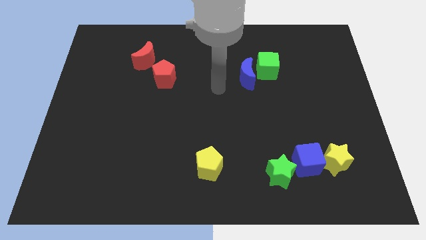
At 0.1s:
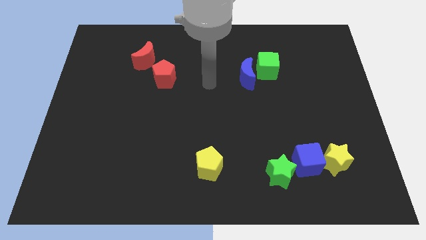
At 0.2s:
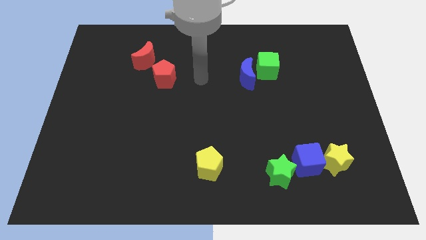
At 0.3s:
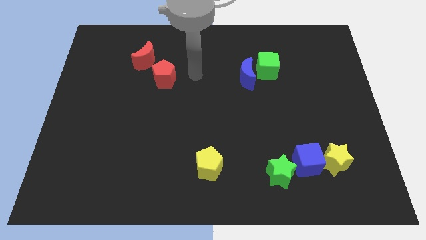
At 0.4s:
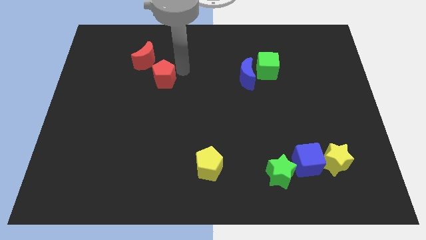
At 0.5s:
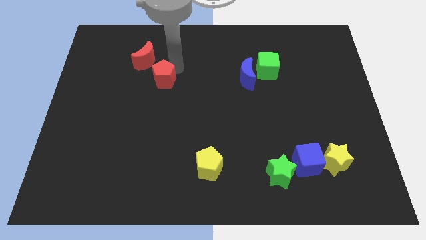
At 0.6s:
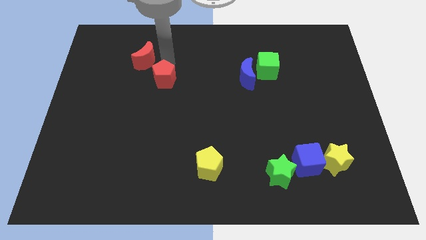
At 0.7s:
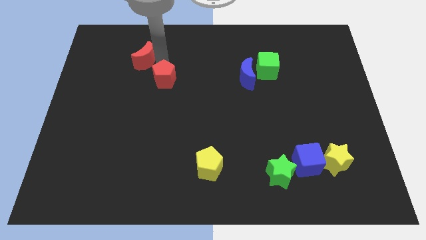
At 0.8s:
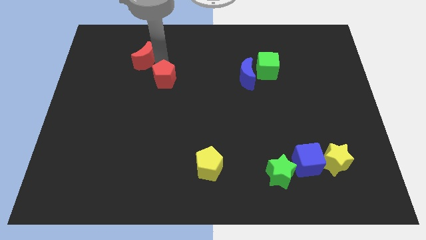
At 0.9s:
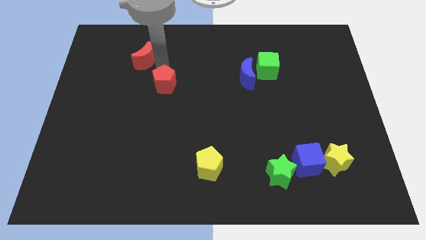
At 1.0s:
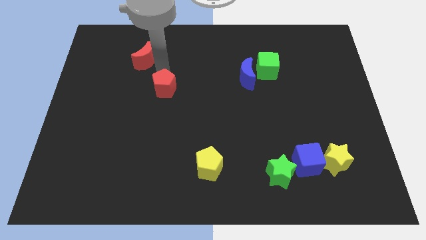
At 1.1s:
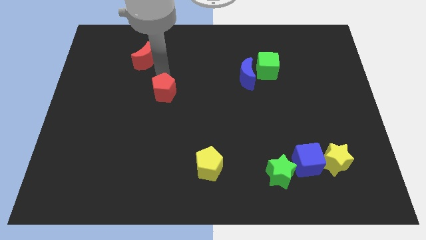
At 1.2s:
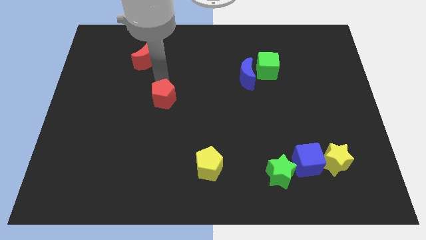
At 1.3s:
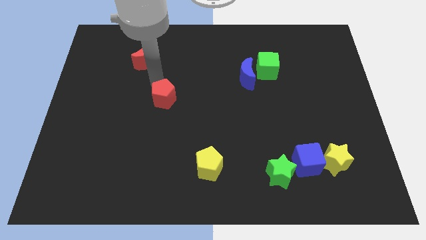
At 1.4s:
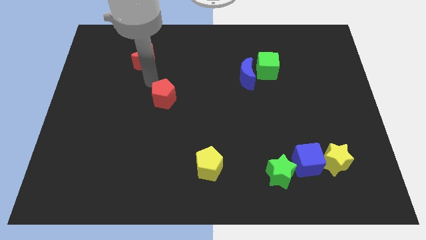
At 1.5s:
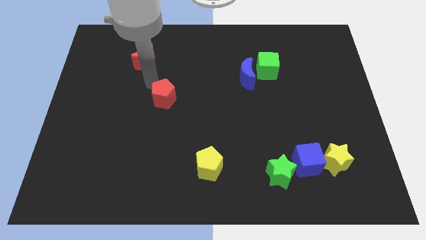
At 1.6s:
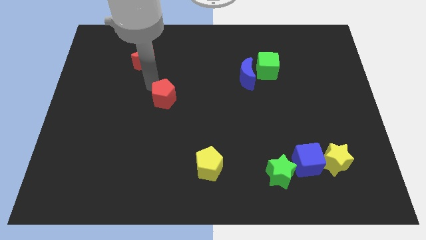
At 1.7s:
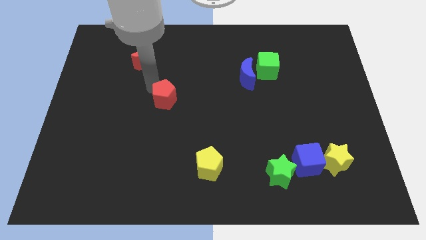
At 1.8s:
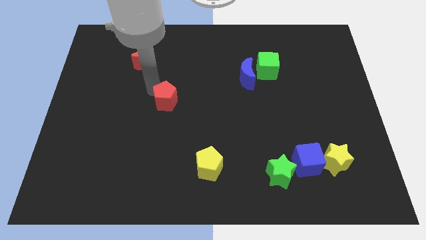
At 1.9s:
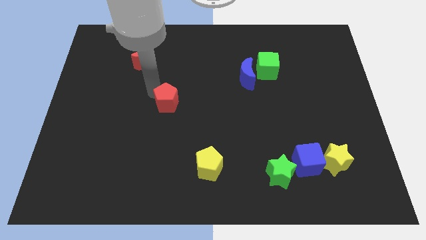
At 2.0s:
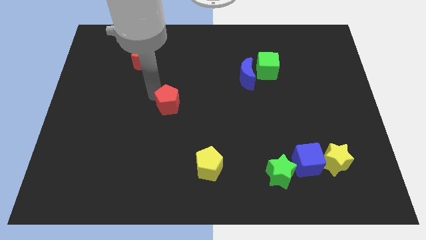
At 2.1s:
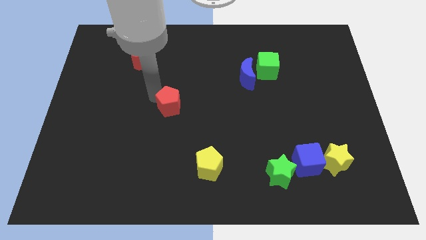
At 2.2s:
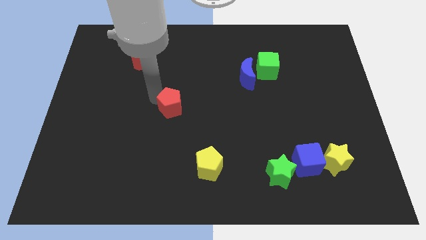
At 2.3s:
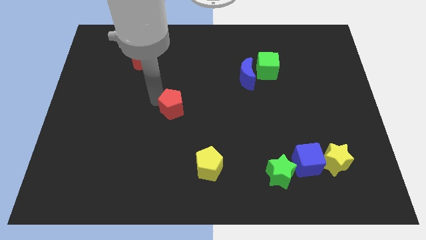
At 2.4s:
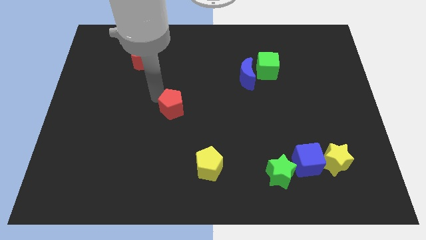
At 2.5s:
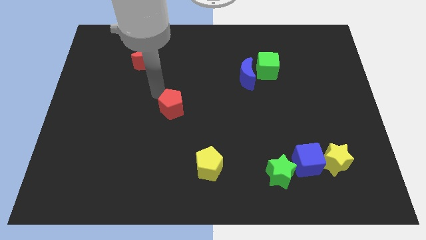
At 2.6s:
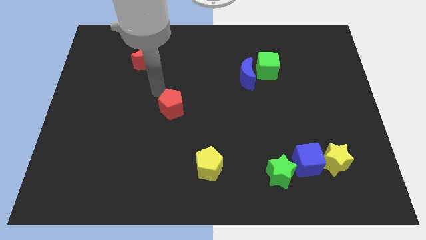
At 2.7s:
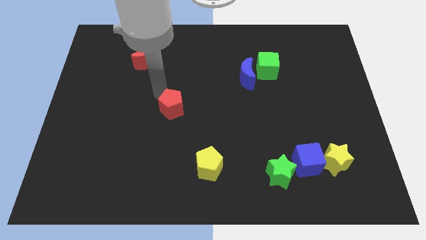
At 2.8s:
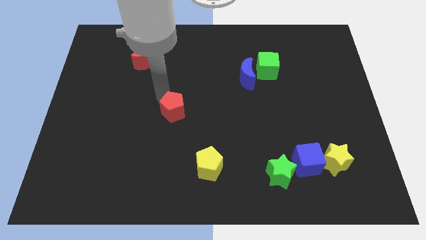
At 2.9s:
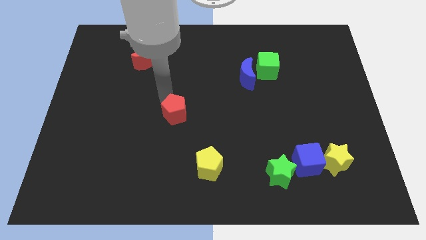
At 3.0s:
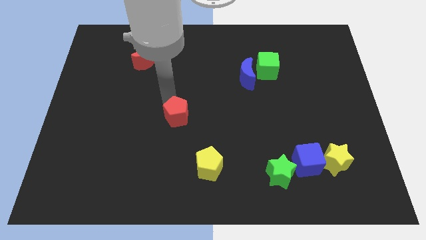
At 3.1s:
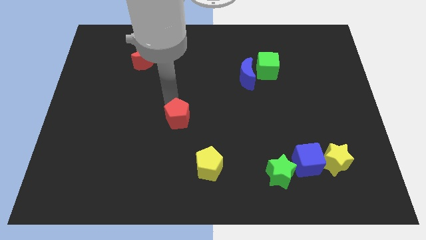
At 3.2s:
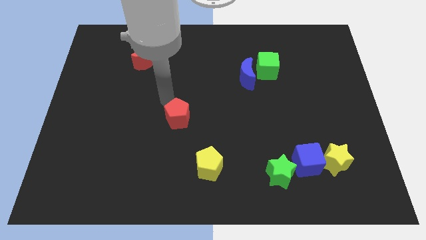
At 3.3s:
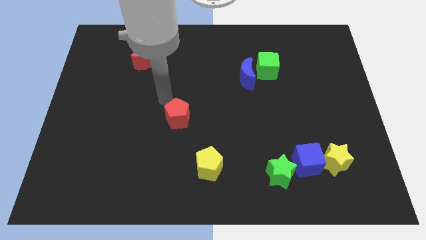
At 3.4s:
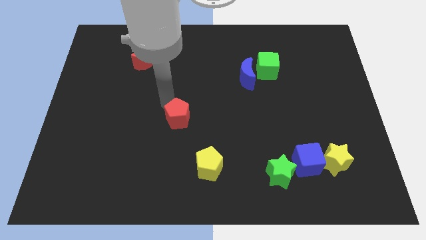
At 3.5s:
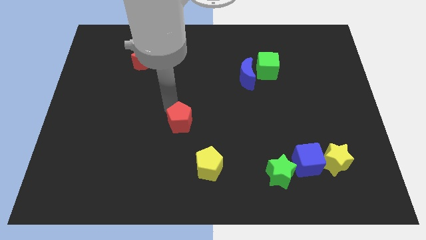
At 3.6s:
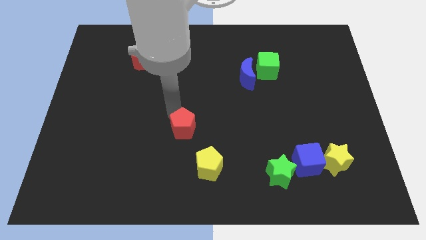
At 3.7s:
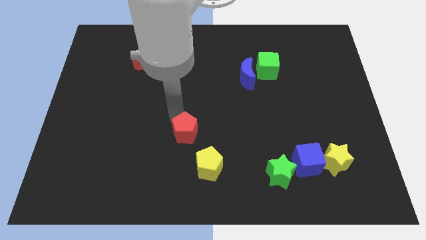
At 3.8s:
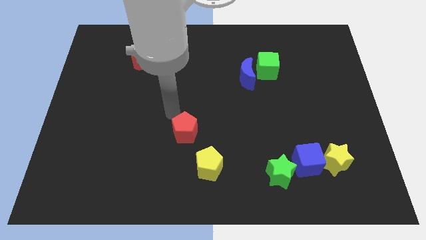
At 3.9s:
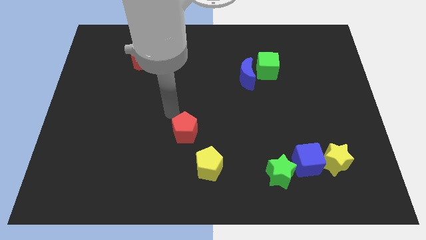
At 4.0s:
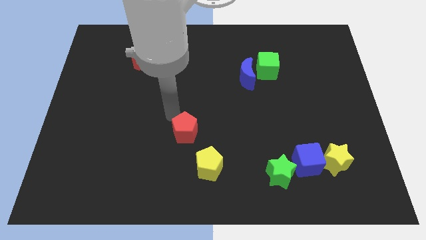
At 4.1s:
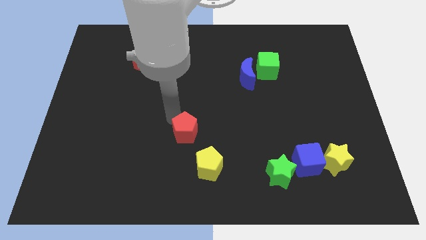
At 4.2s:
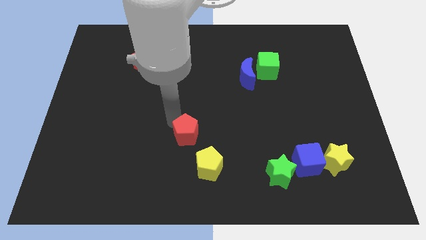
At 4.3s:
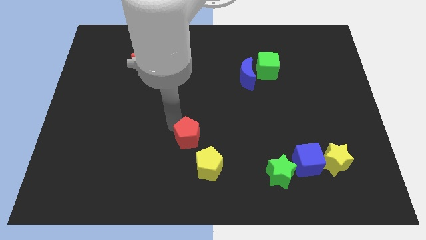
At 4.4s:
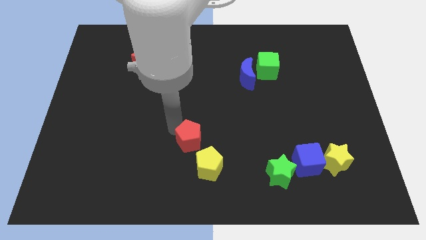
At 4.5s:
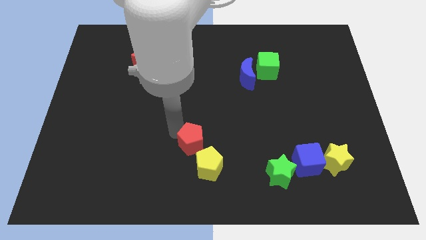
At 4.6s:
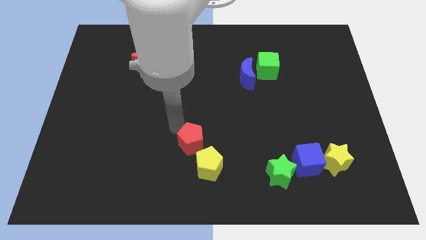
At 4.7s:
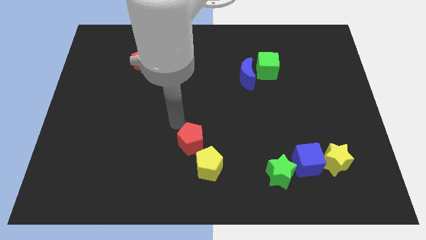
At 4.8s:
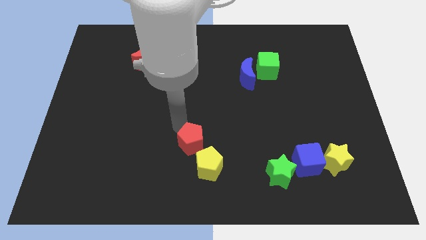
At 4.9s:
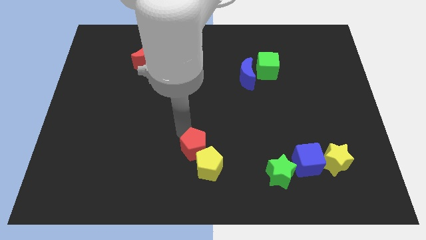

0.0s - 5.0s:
move the red pentagon next to the yellow pentagon
